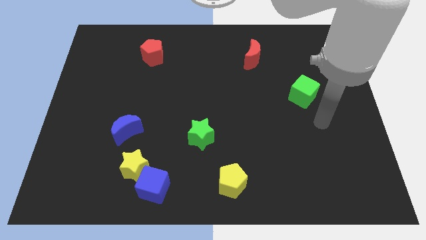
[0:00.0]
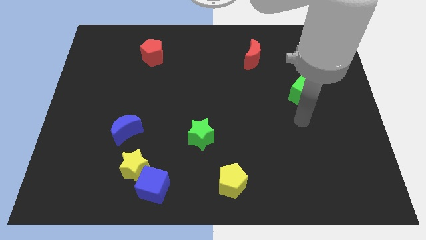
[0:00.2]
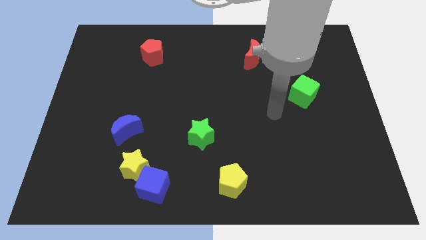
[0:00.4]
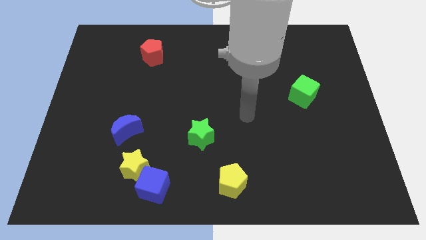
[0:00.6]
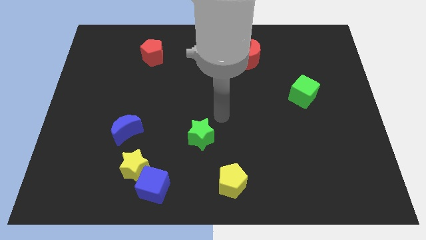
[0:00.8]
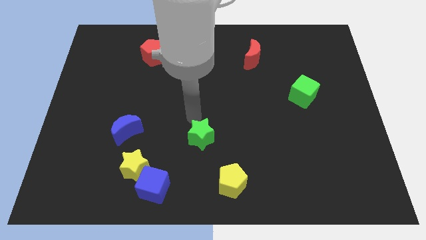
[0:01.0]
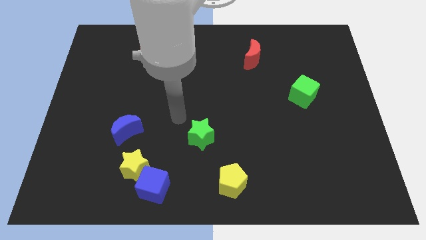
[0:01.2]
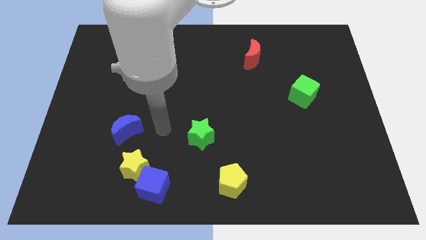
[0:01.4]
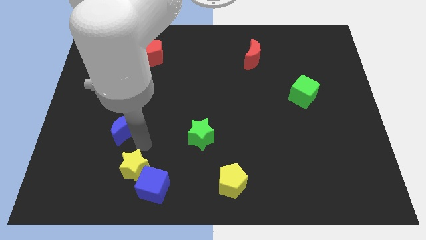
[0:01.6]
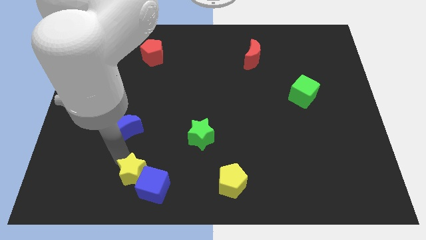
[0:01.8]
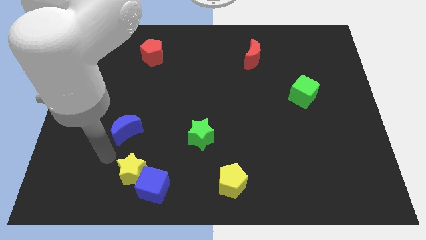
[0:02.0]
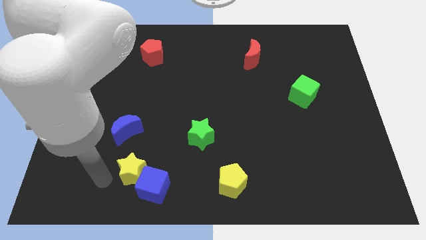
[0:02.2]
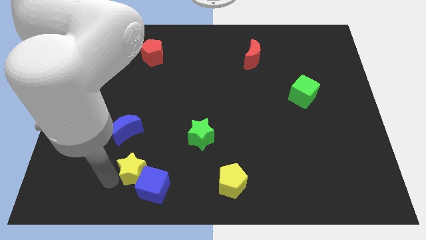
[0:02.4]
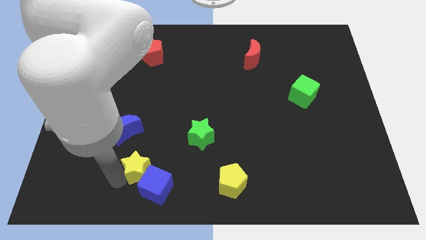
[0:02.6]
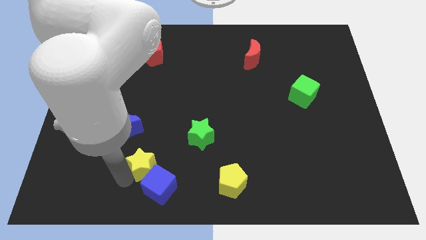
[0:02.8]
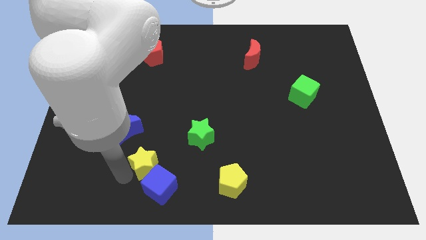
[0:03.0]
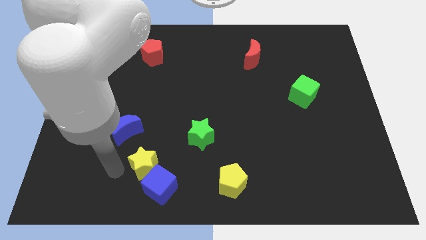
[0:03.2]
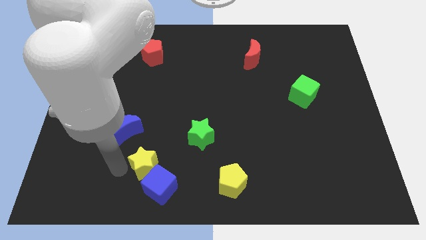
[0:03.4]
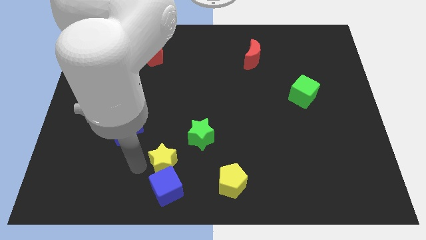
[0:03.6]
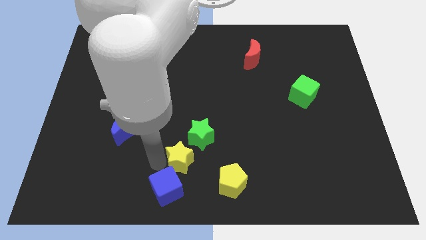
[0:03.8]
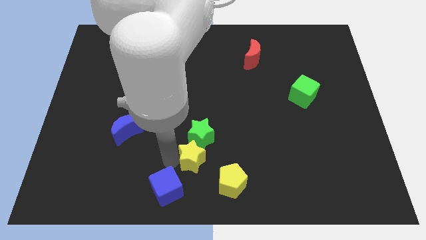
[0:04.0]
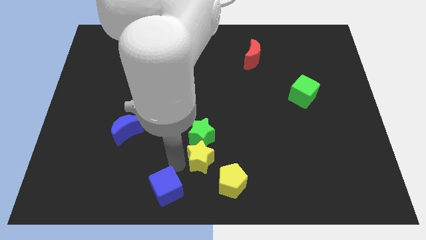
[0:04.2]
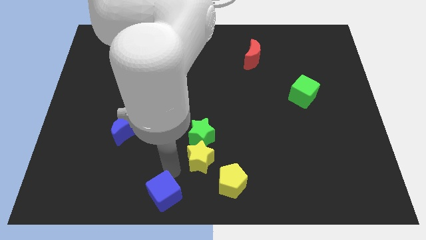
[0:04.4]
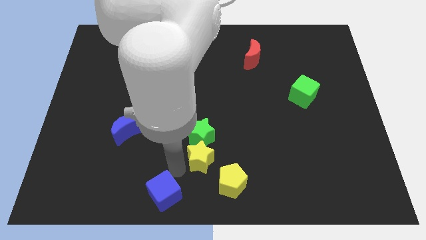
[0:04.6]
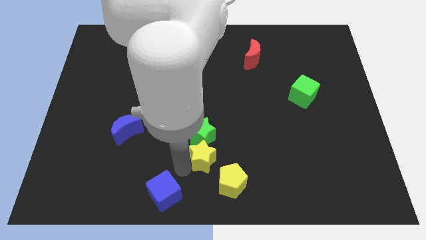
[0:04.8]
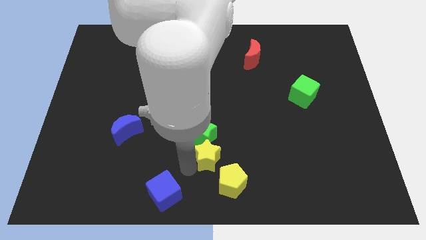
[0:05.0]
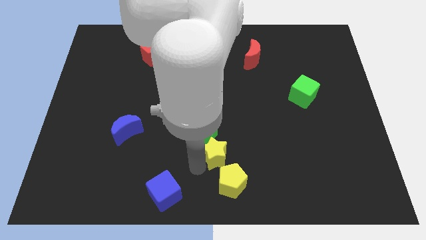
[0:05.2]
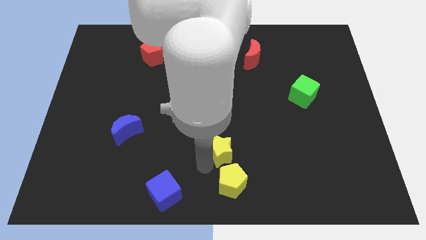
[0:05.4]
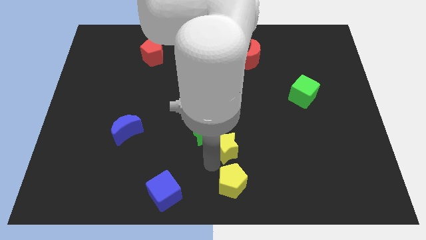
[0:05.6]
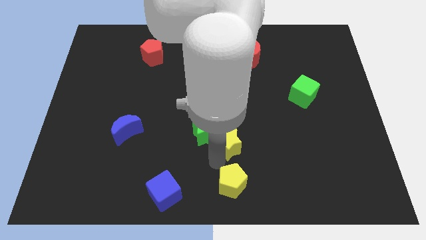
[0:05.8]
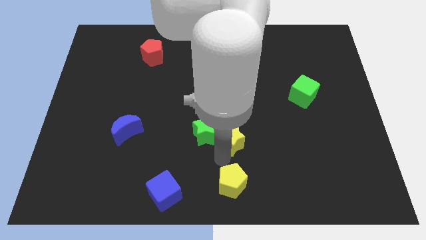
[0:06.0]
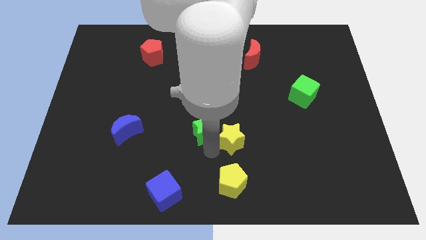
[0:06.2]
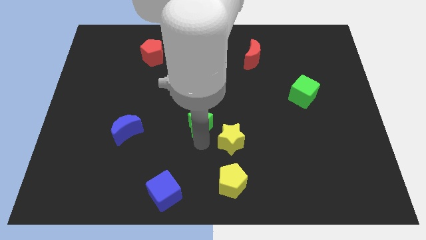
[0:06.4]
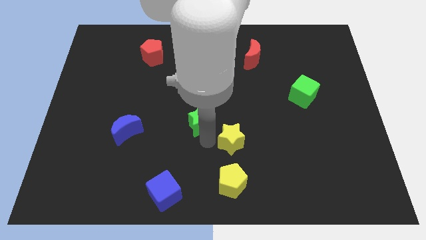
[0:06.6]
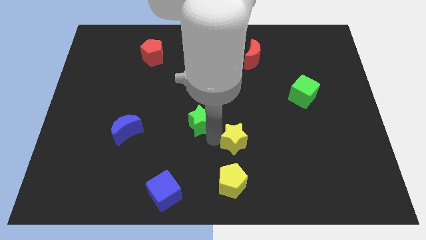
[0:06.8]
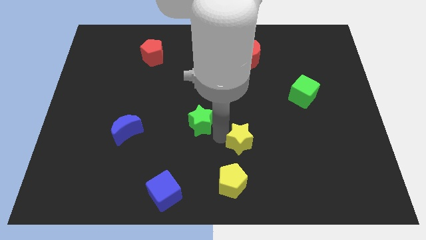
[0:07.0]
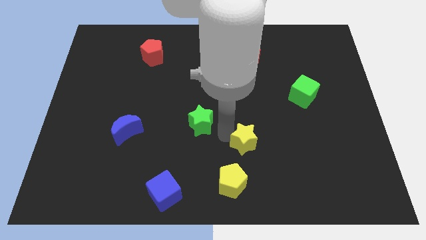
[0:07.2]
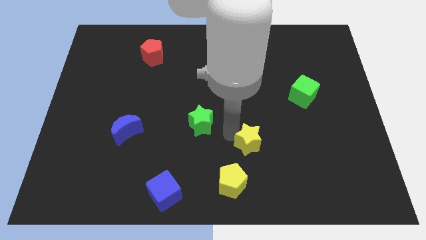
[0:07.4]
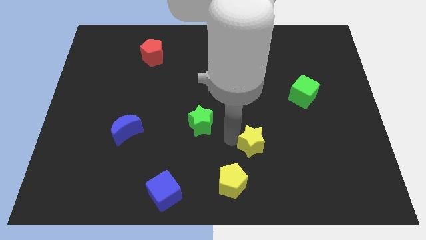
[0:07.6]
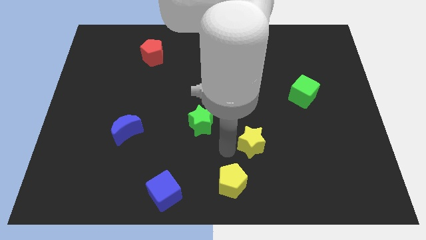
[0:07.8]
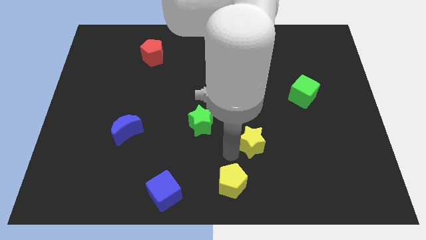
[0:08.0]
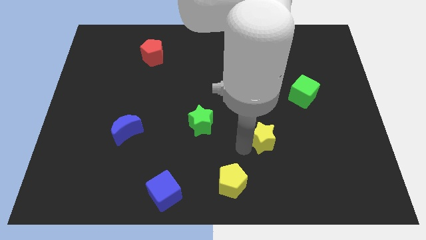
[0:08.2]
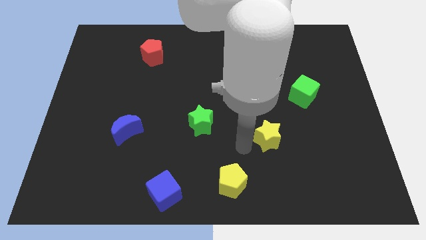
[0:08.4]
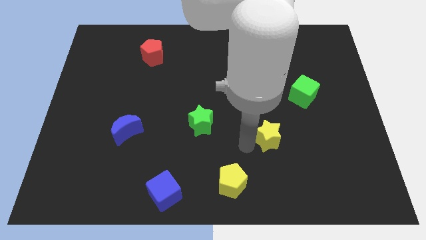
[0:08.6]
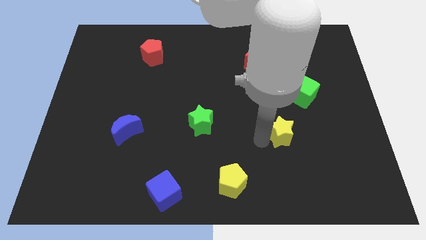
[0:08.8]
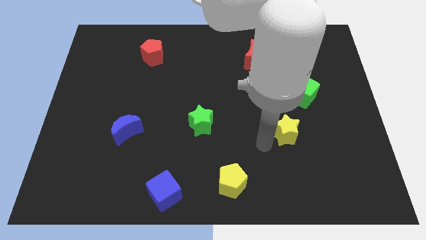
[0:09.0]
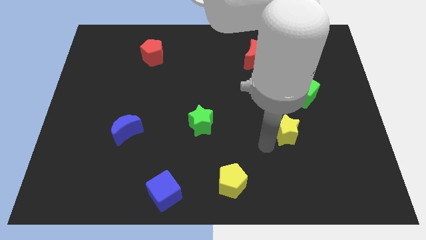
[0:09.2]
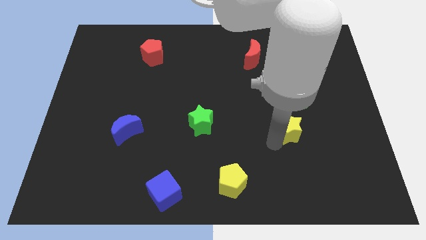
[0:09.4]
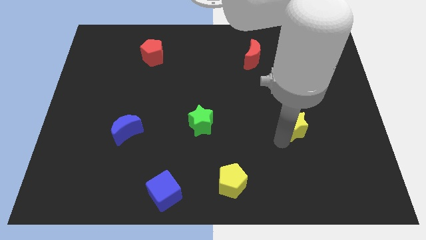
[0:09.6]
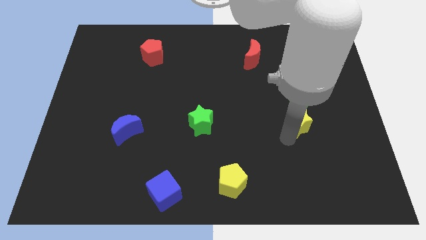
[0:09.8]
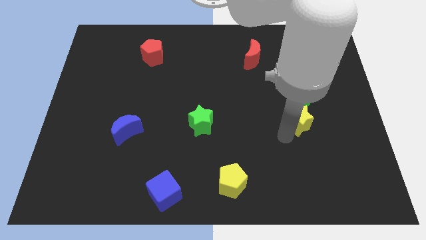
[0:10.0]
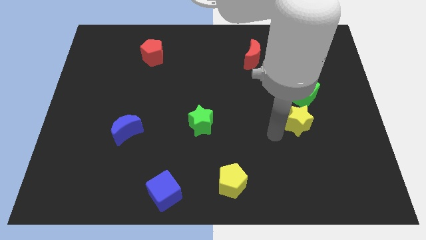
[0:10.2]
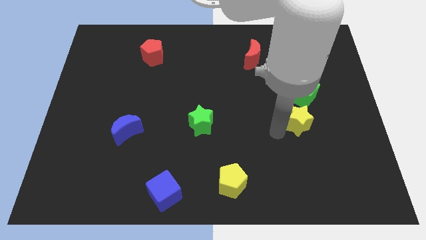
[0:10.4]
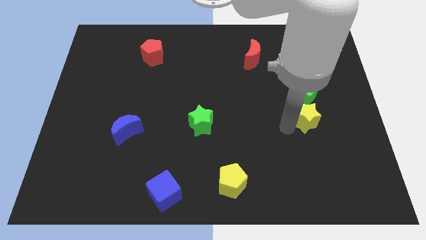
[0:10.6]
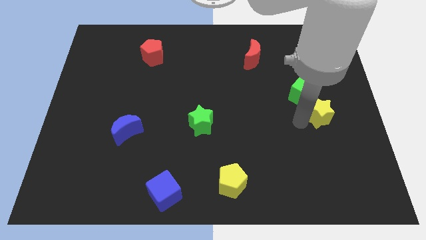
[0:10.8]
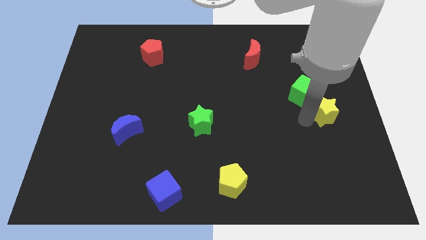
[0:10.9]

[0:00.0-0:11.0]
push the yellow star to the right side of the board

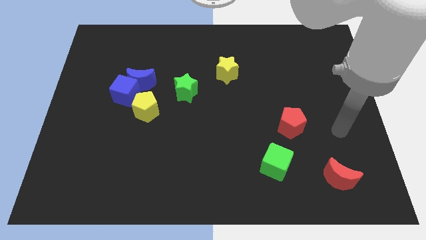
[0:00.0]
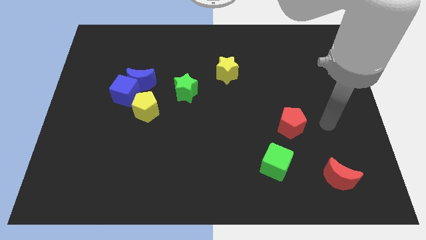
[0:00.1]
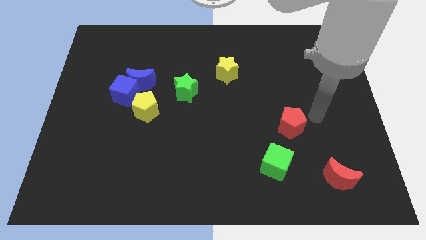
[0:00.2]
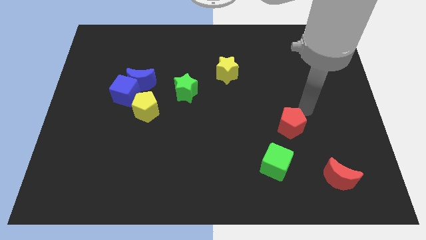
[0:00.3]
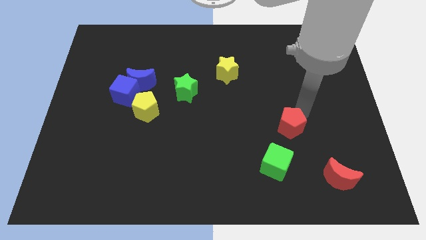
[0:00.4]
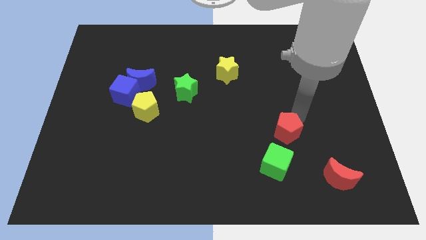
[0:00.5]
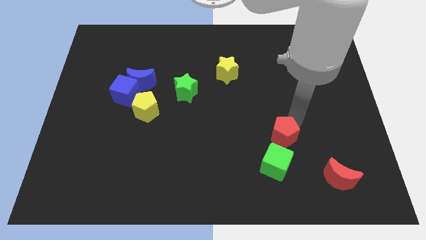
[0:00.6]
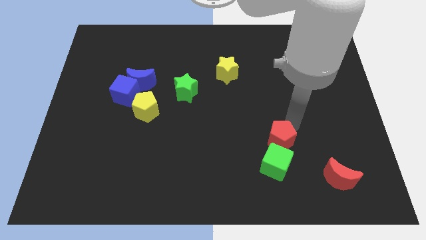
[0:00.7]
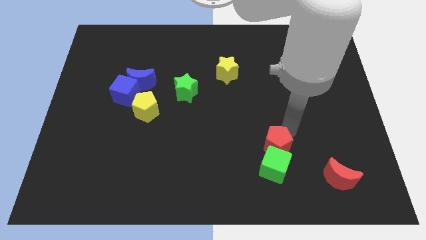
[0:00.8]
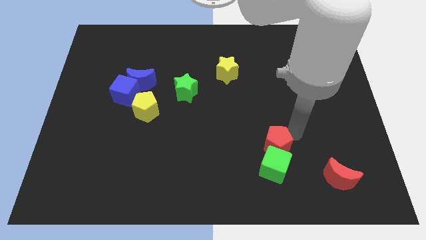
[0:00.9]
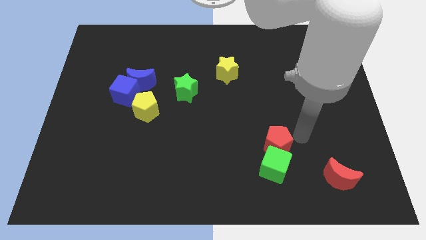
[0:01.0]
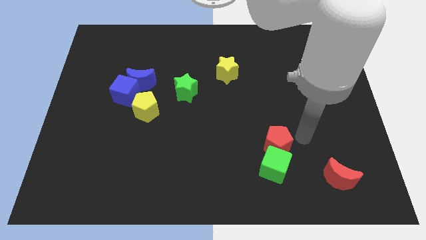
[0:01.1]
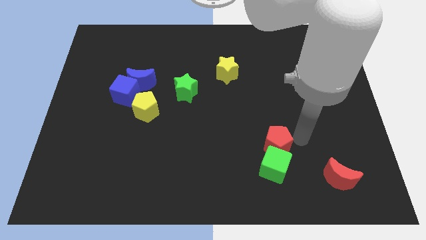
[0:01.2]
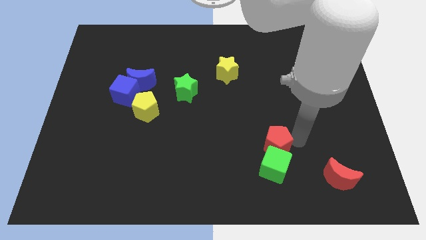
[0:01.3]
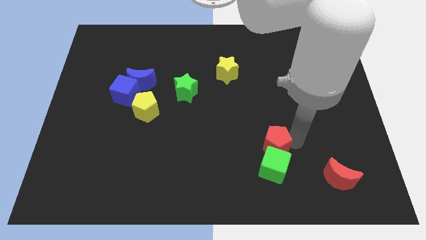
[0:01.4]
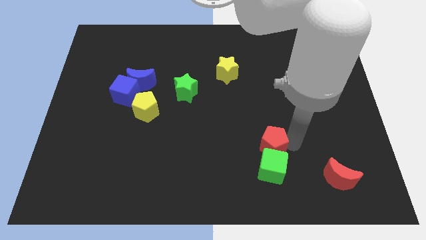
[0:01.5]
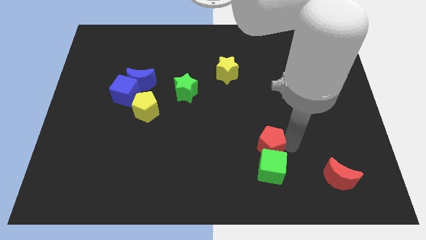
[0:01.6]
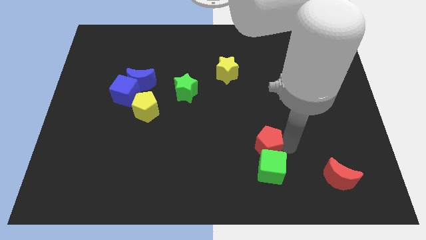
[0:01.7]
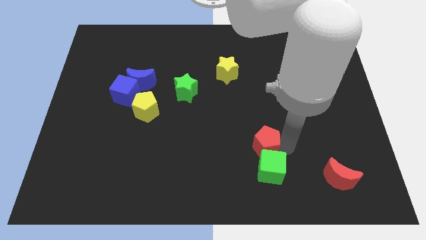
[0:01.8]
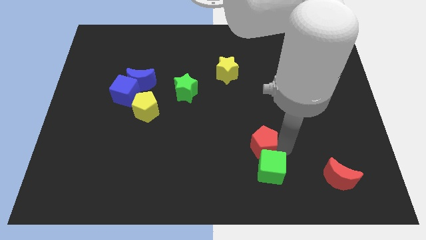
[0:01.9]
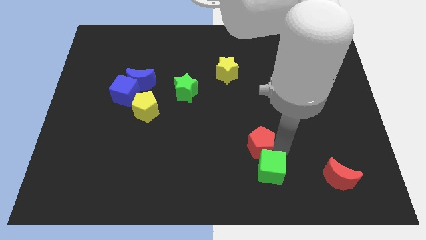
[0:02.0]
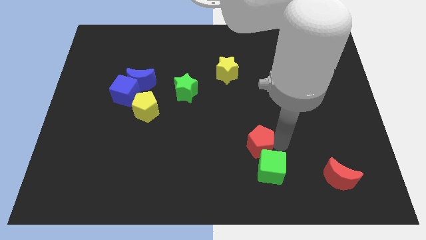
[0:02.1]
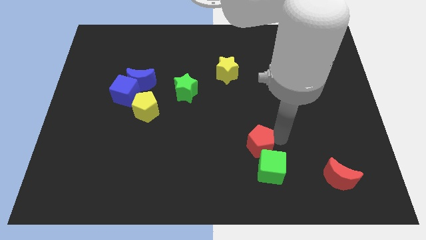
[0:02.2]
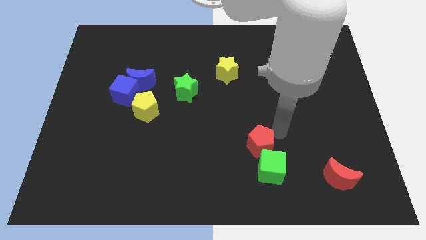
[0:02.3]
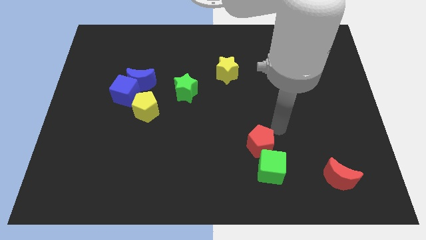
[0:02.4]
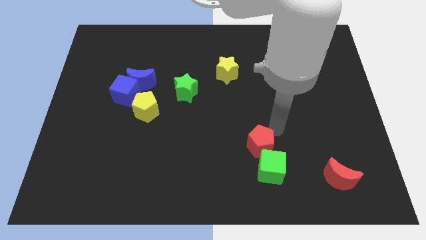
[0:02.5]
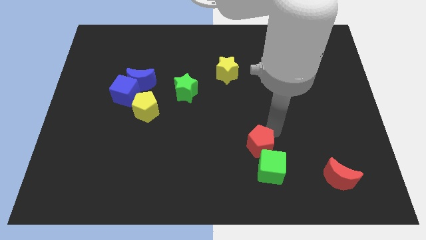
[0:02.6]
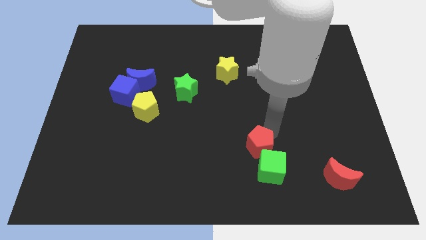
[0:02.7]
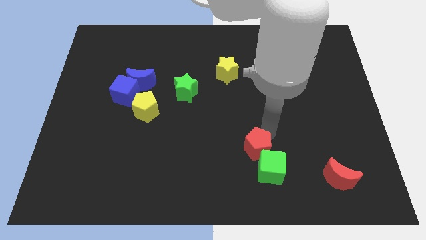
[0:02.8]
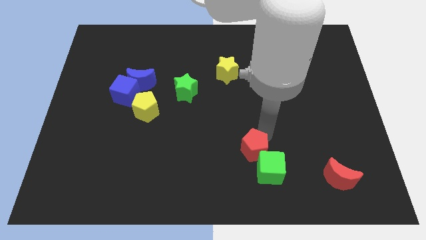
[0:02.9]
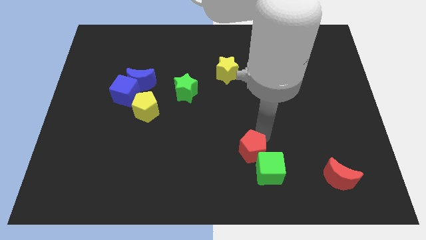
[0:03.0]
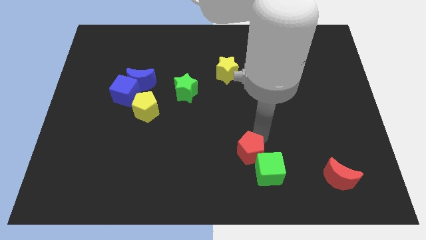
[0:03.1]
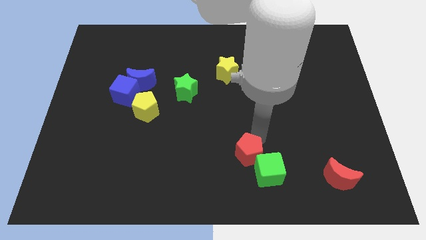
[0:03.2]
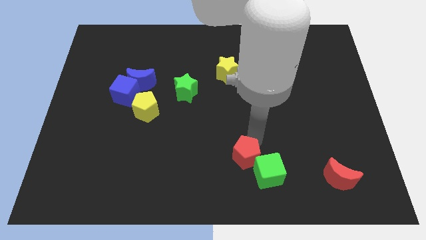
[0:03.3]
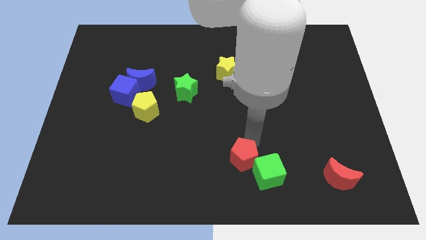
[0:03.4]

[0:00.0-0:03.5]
slide the red pentagon to the bottom side
